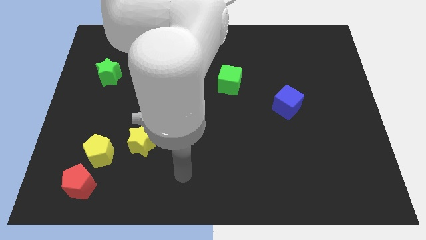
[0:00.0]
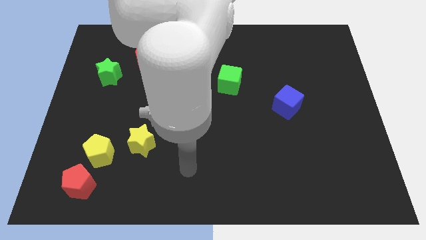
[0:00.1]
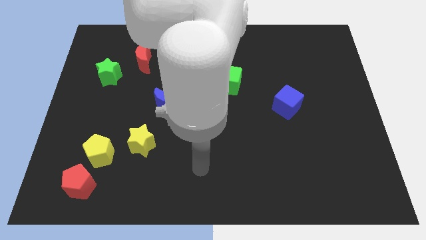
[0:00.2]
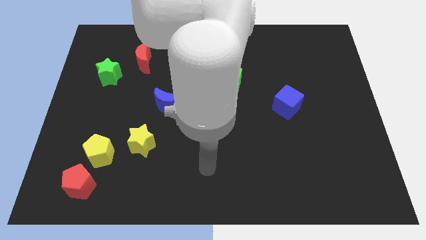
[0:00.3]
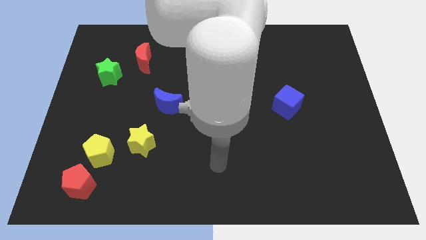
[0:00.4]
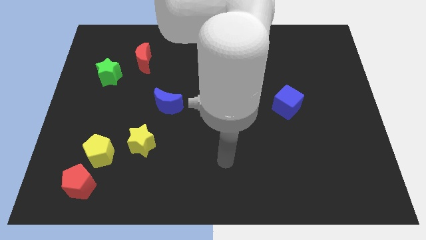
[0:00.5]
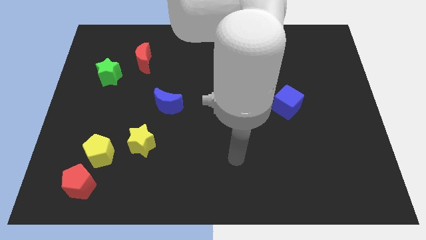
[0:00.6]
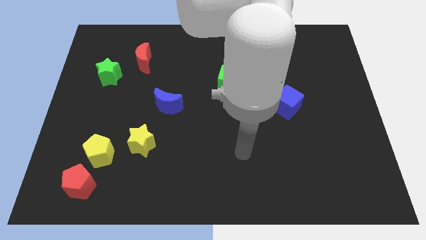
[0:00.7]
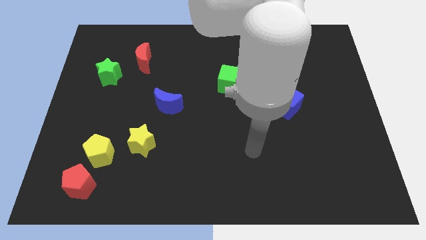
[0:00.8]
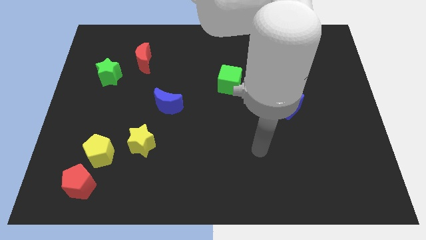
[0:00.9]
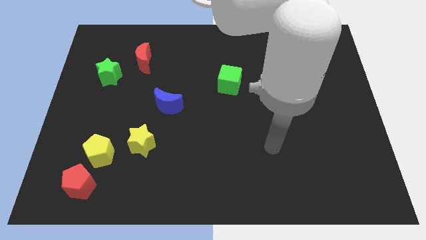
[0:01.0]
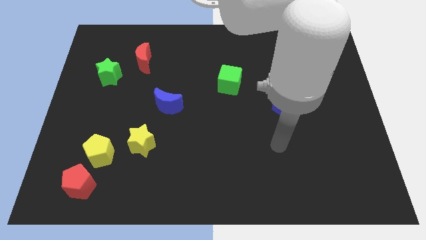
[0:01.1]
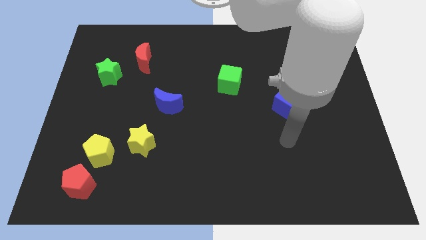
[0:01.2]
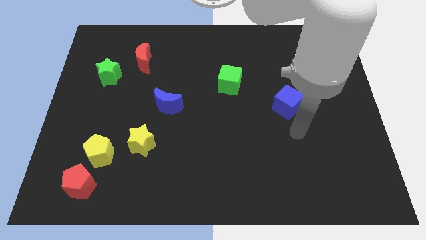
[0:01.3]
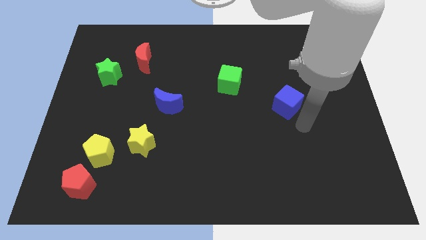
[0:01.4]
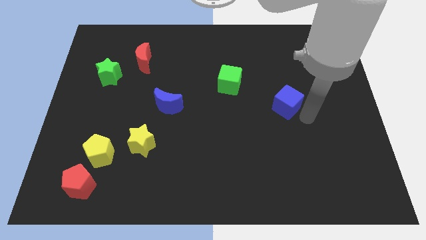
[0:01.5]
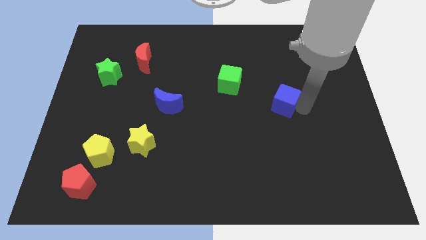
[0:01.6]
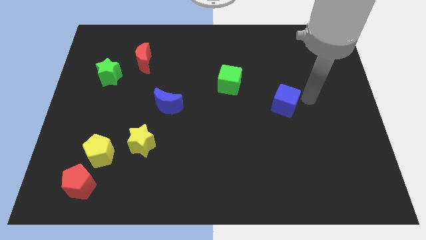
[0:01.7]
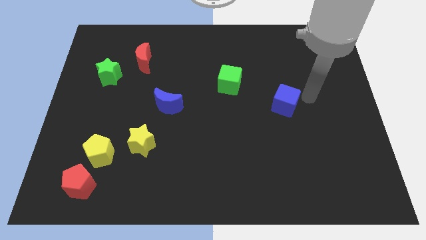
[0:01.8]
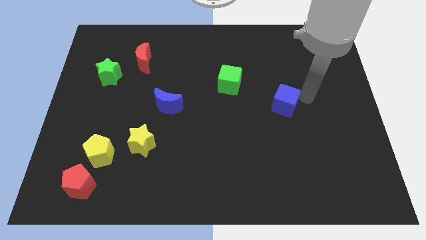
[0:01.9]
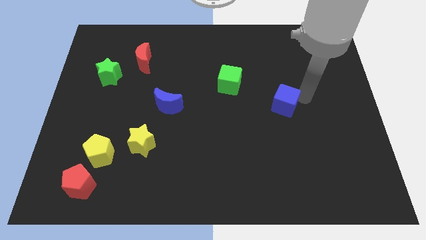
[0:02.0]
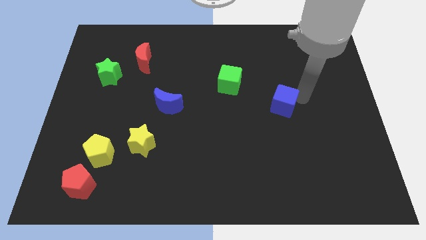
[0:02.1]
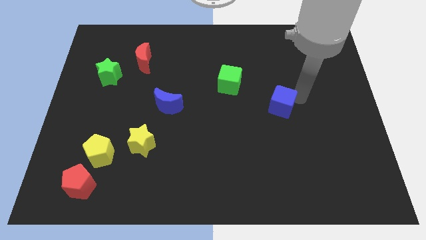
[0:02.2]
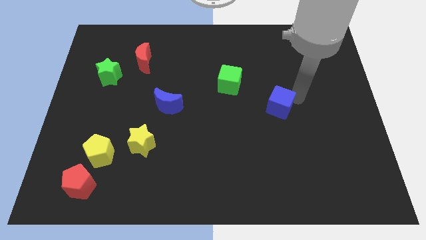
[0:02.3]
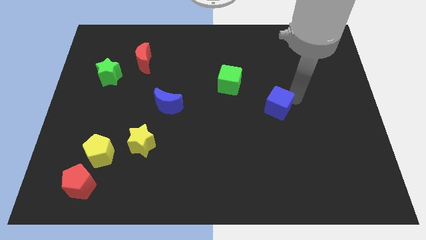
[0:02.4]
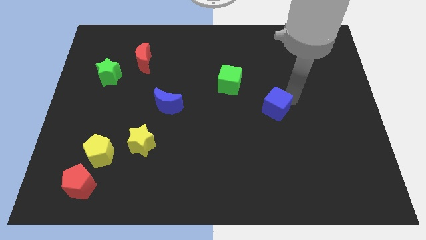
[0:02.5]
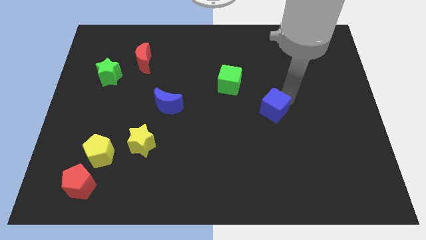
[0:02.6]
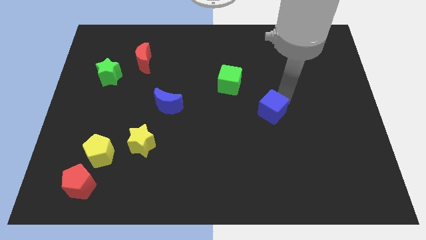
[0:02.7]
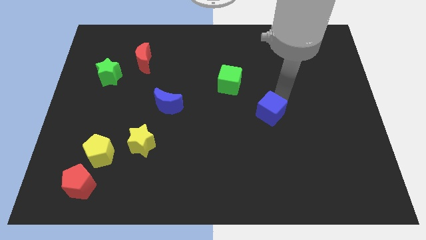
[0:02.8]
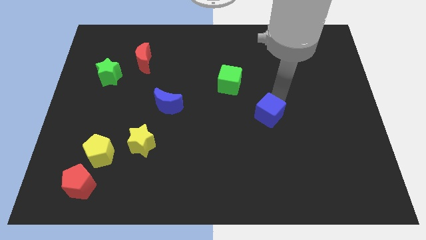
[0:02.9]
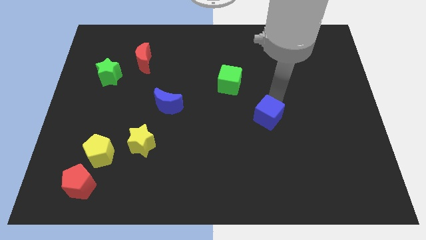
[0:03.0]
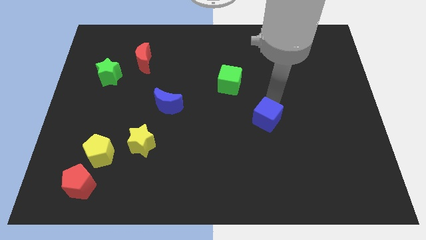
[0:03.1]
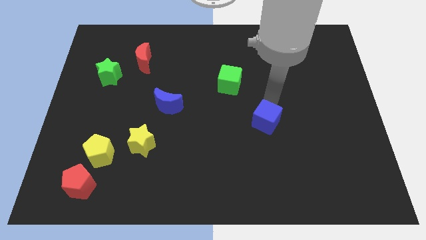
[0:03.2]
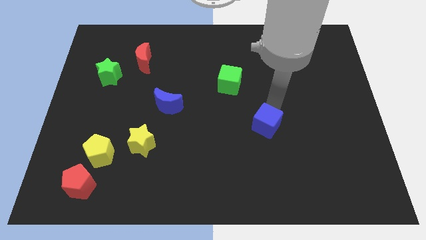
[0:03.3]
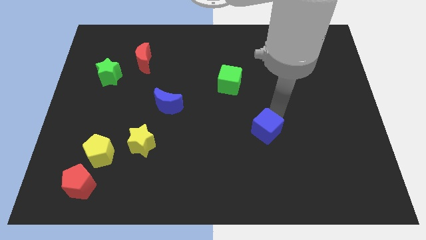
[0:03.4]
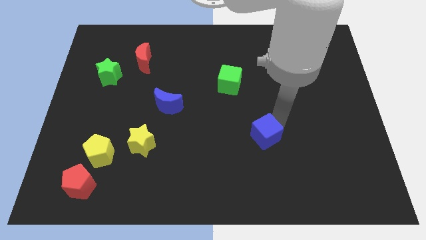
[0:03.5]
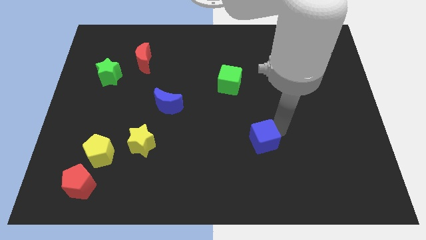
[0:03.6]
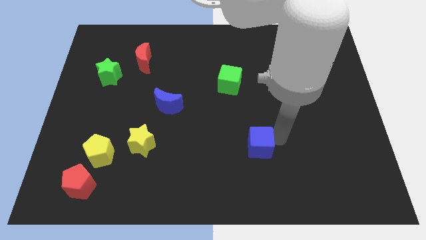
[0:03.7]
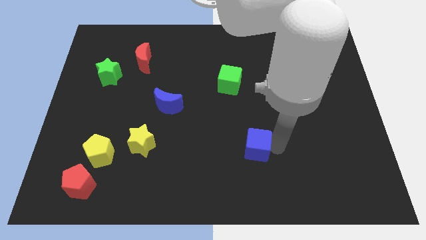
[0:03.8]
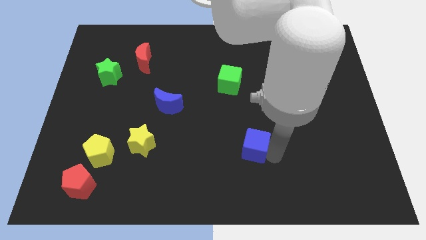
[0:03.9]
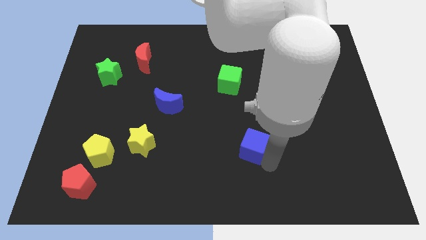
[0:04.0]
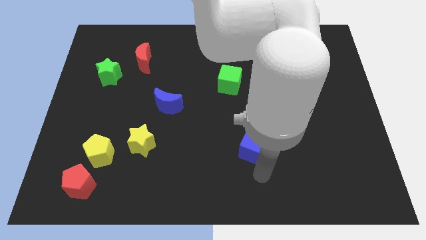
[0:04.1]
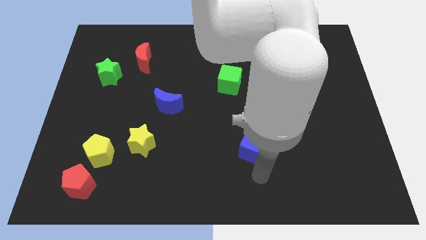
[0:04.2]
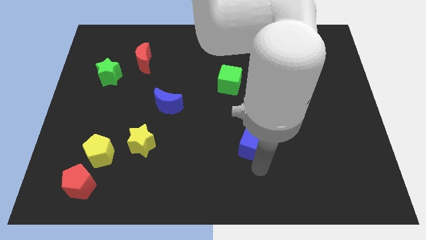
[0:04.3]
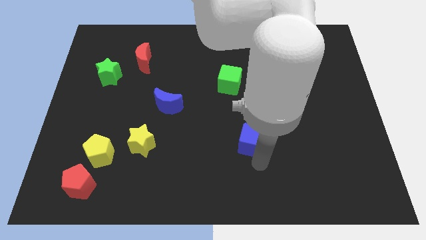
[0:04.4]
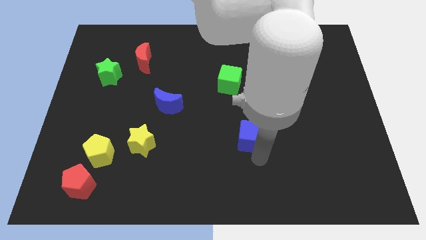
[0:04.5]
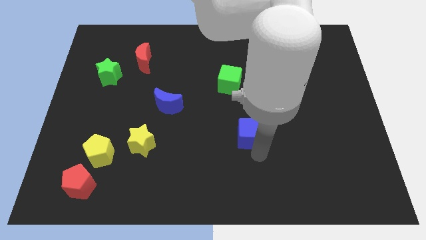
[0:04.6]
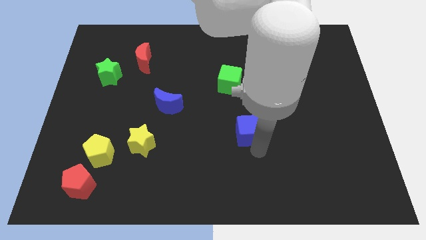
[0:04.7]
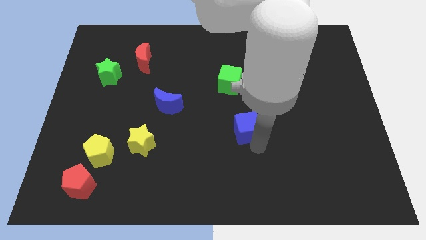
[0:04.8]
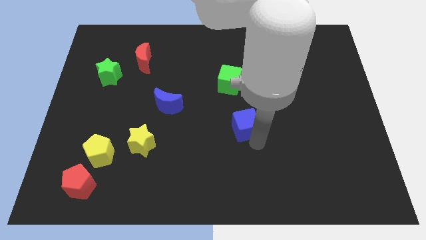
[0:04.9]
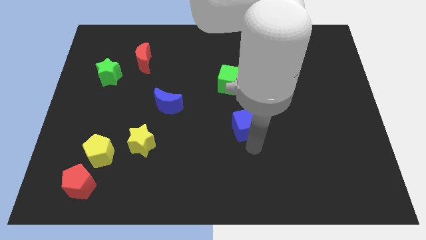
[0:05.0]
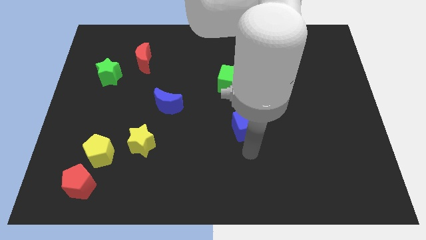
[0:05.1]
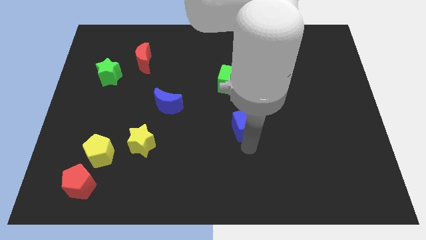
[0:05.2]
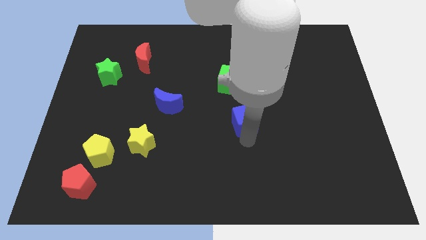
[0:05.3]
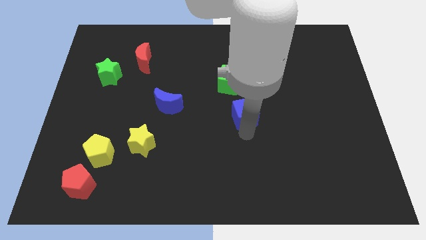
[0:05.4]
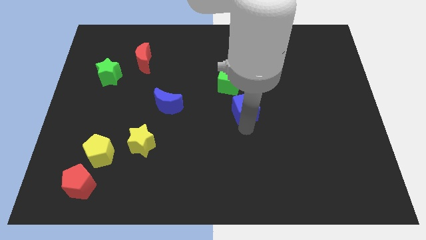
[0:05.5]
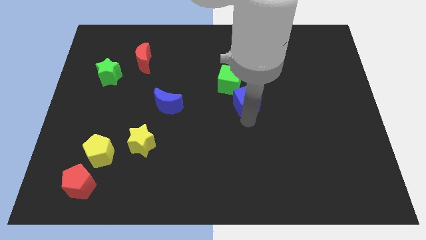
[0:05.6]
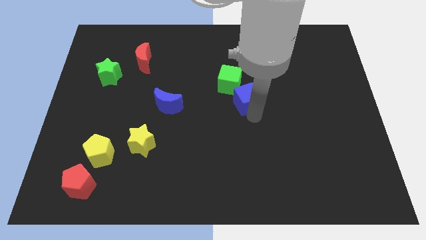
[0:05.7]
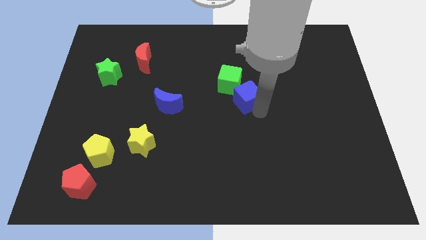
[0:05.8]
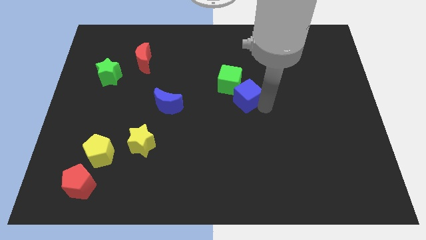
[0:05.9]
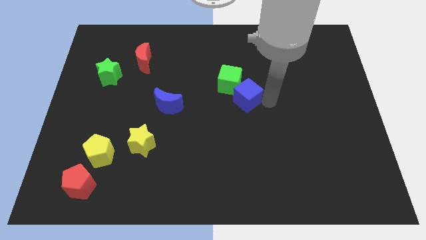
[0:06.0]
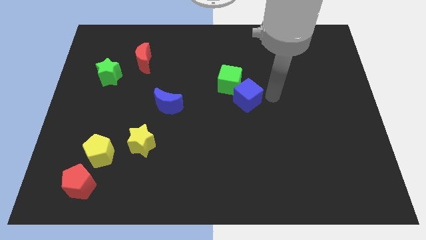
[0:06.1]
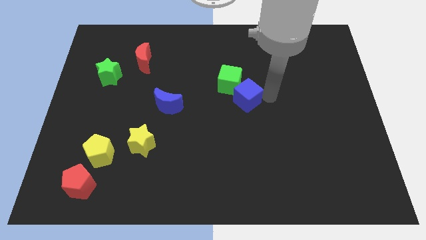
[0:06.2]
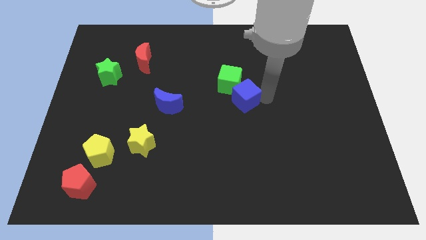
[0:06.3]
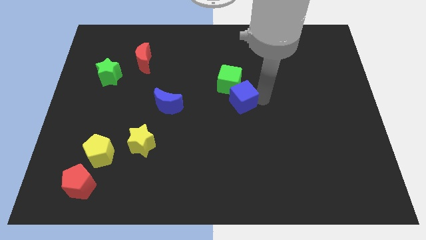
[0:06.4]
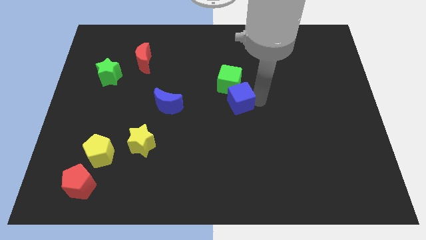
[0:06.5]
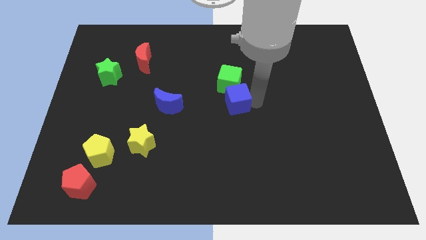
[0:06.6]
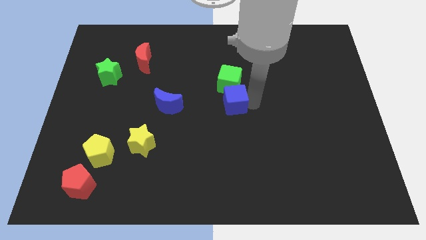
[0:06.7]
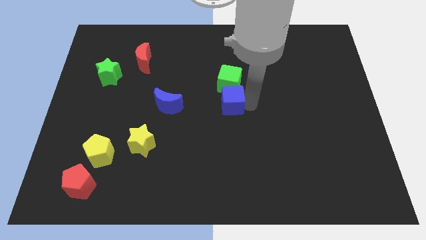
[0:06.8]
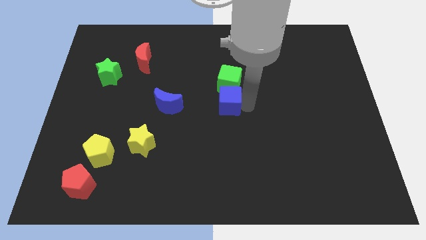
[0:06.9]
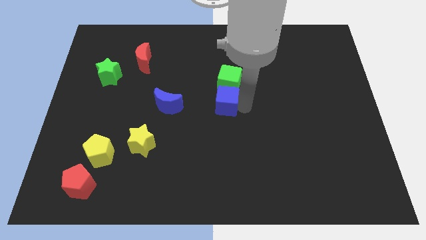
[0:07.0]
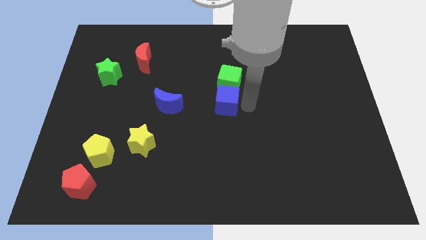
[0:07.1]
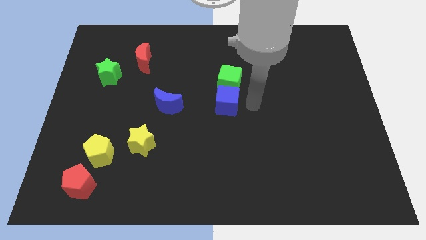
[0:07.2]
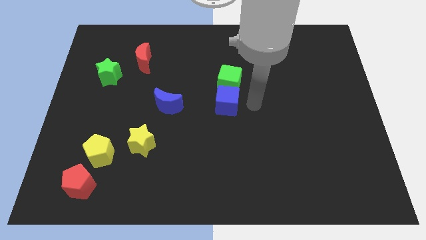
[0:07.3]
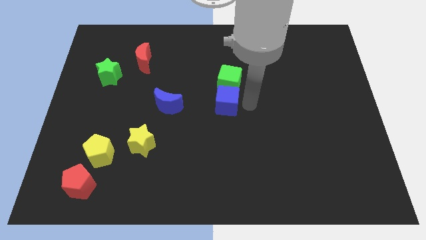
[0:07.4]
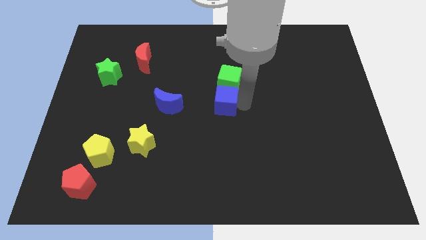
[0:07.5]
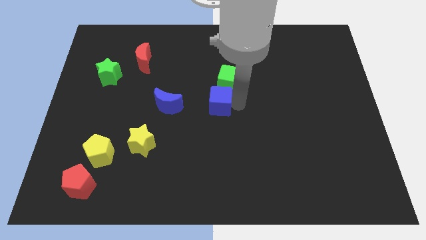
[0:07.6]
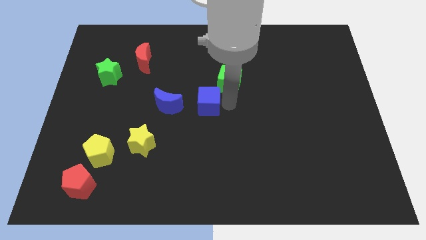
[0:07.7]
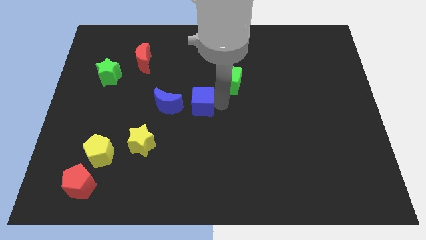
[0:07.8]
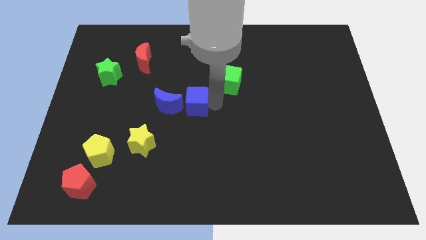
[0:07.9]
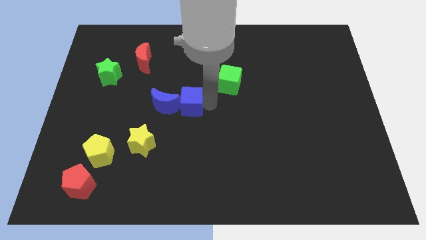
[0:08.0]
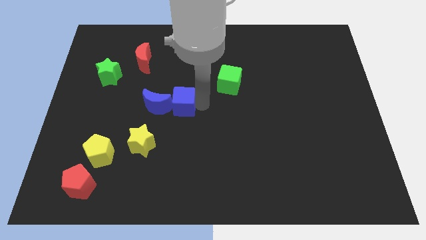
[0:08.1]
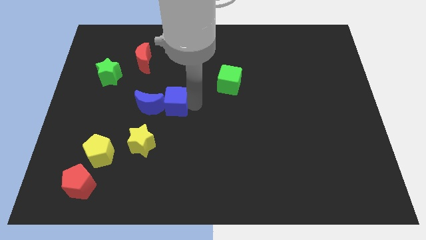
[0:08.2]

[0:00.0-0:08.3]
move the blue cube towards the blue moon
